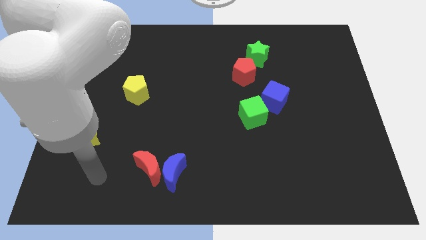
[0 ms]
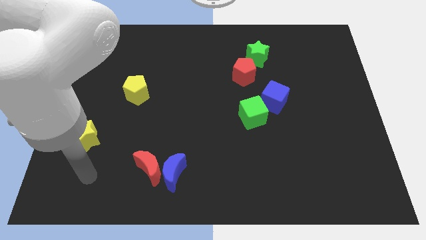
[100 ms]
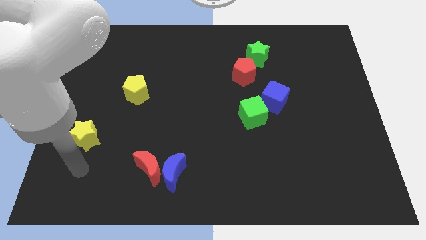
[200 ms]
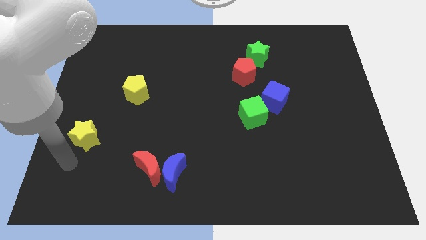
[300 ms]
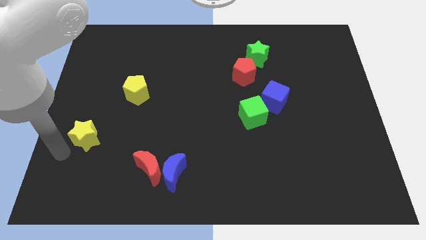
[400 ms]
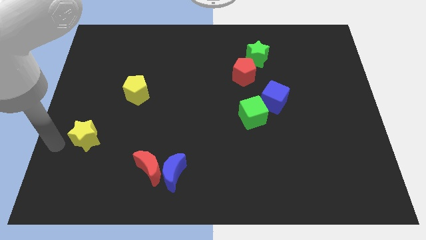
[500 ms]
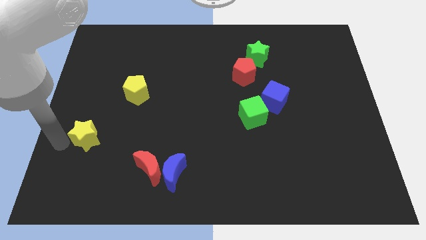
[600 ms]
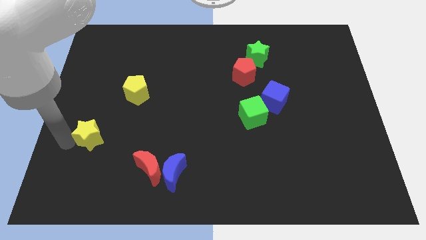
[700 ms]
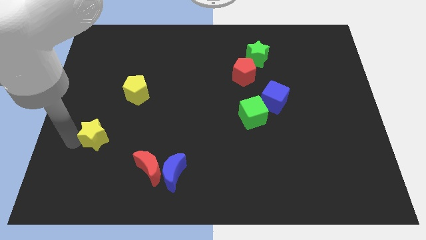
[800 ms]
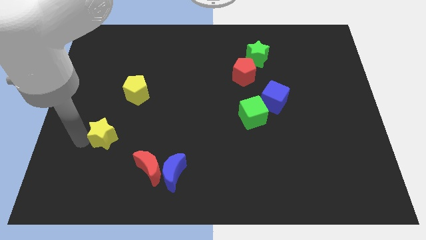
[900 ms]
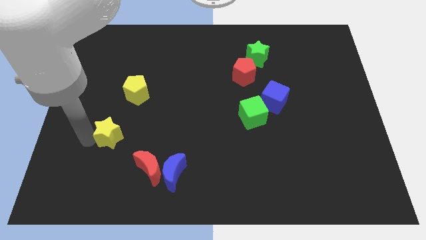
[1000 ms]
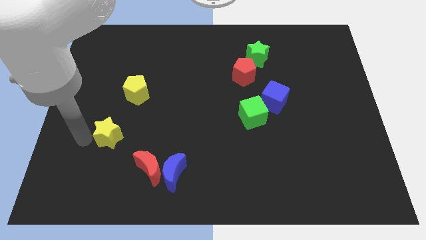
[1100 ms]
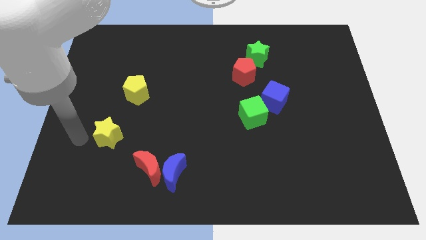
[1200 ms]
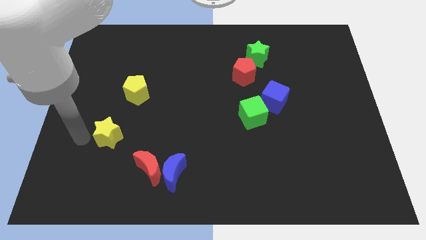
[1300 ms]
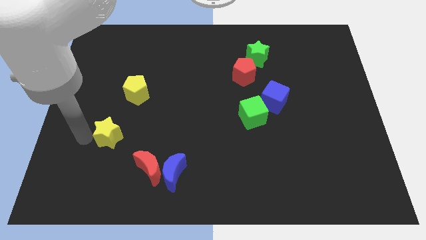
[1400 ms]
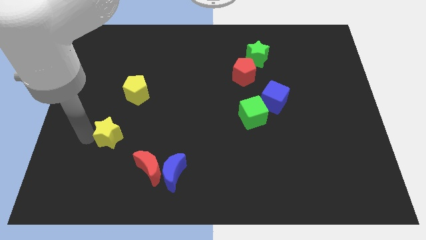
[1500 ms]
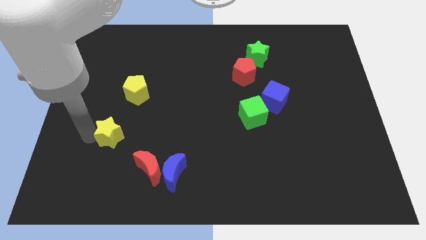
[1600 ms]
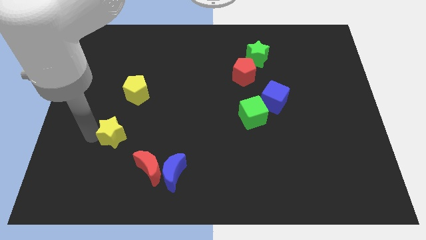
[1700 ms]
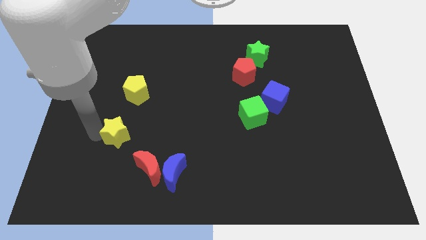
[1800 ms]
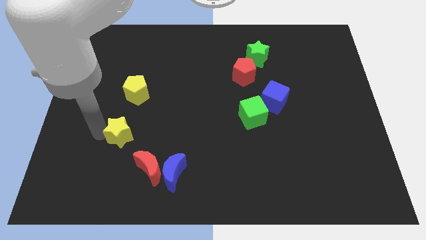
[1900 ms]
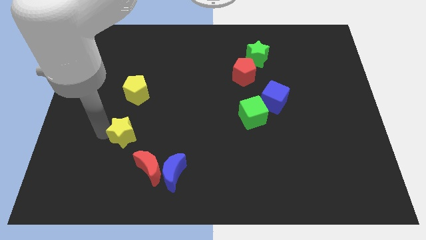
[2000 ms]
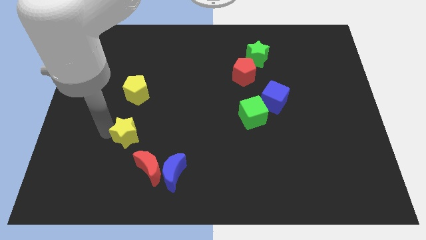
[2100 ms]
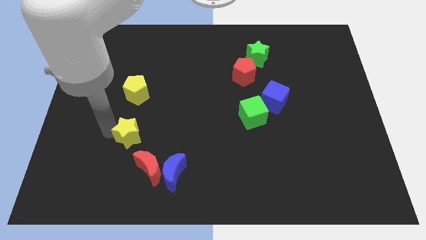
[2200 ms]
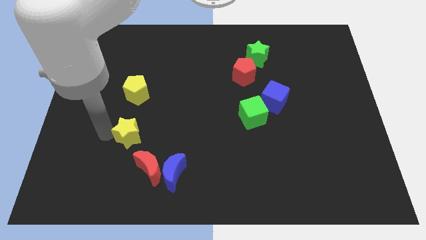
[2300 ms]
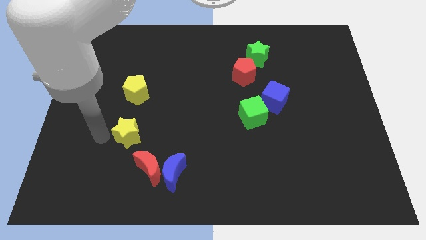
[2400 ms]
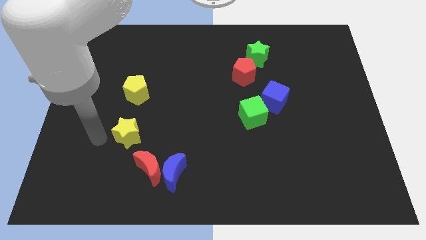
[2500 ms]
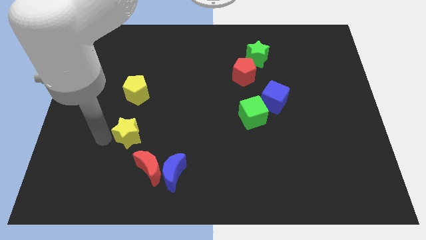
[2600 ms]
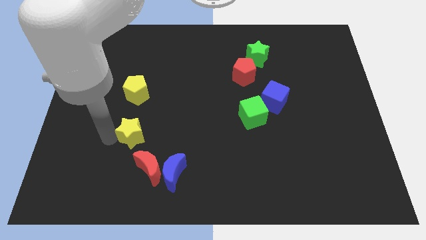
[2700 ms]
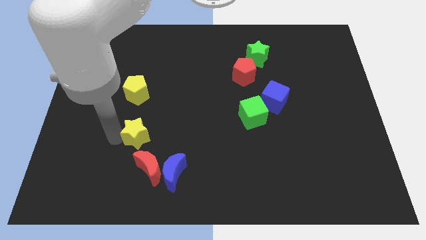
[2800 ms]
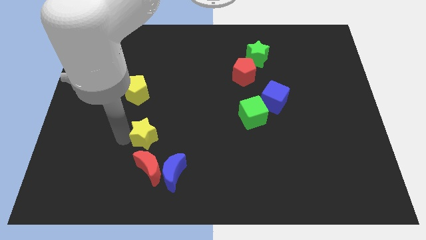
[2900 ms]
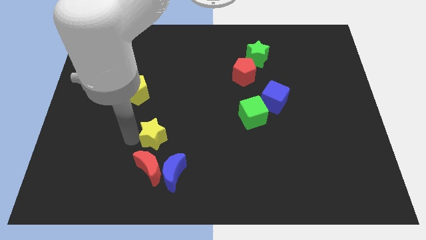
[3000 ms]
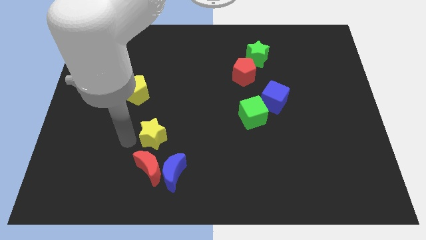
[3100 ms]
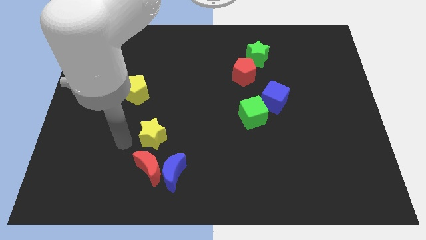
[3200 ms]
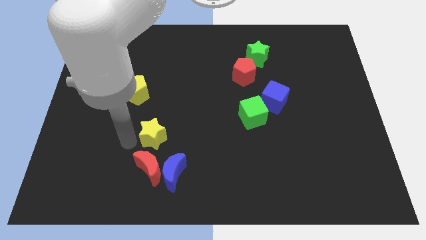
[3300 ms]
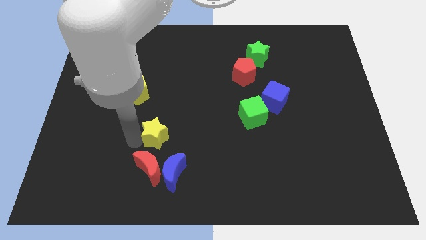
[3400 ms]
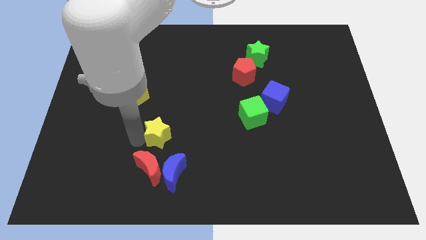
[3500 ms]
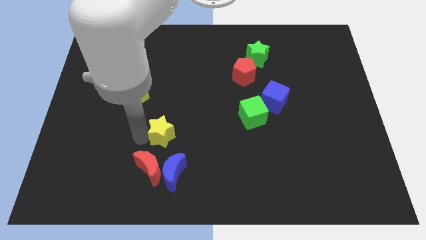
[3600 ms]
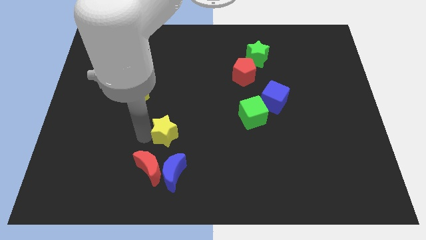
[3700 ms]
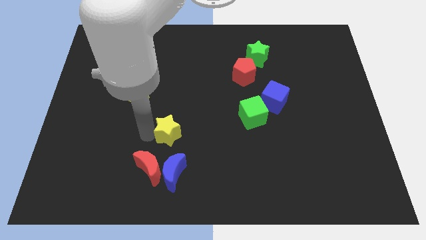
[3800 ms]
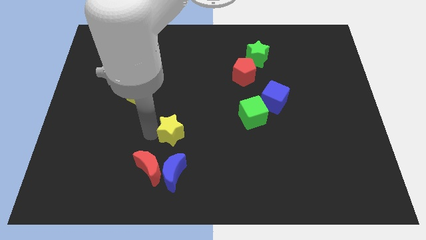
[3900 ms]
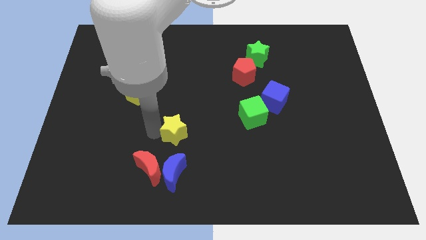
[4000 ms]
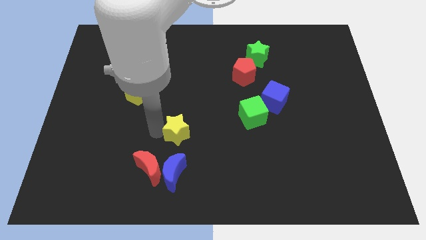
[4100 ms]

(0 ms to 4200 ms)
move the yellow star right

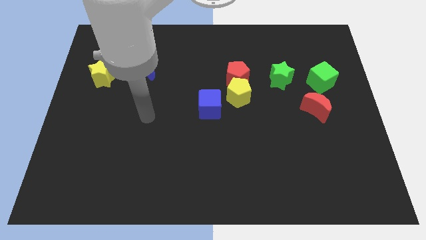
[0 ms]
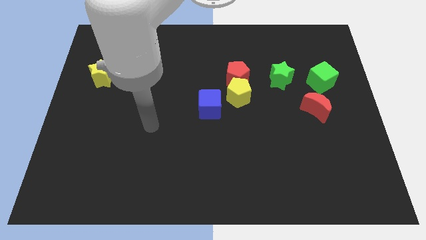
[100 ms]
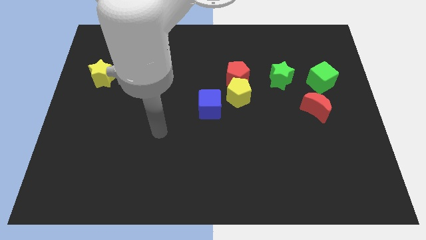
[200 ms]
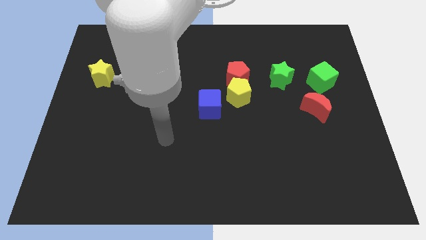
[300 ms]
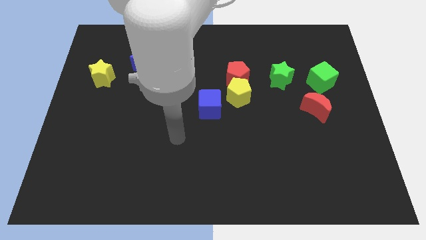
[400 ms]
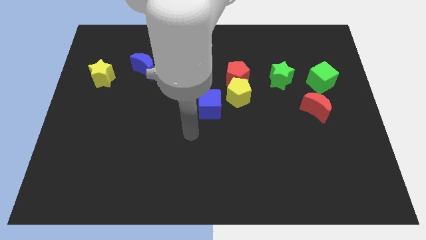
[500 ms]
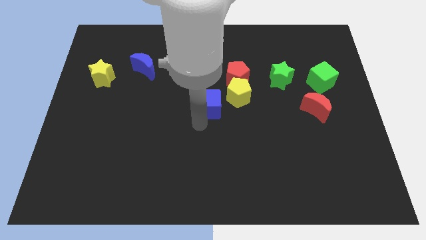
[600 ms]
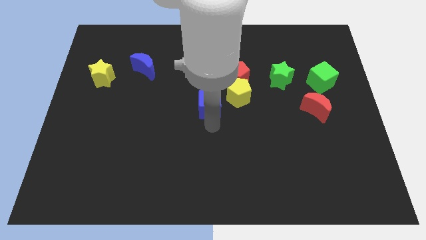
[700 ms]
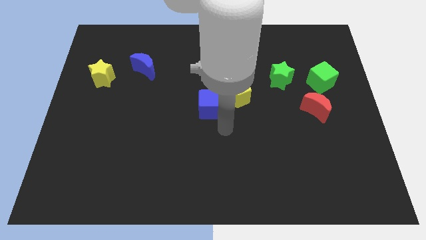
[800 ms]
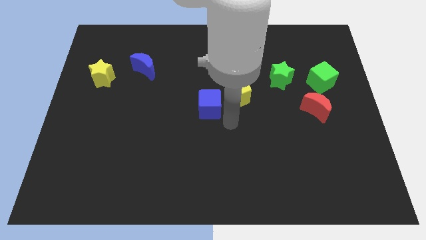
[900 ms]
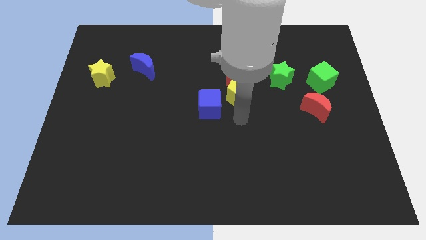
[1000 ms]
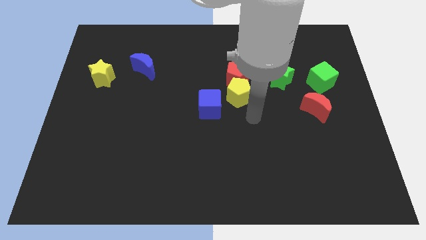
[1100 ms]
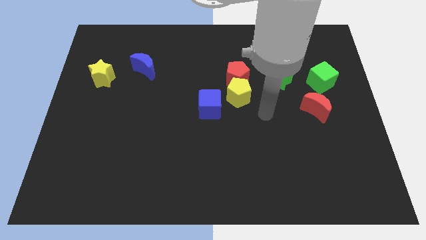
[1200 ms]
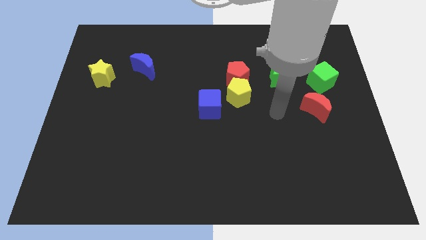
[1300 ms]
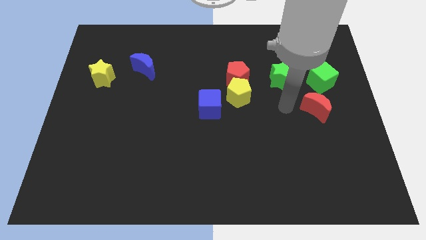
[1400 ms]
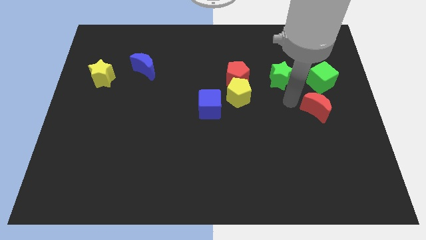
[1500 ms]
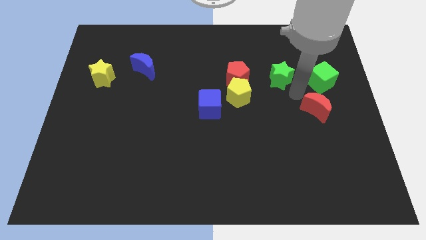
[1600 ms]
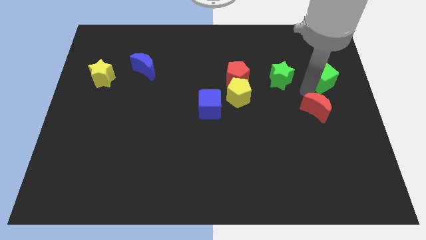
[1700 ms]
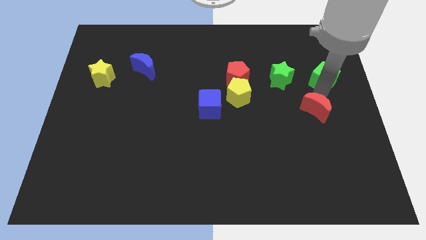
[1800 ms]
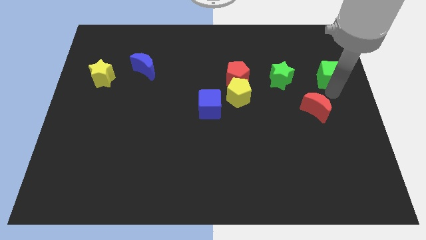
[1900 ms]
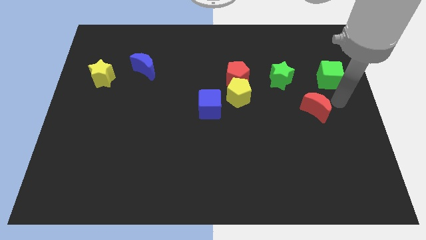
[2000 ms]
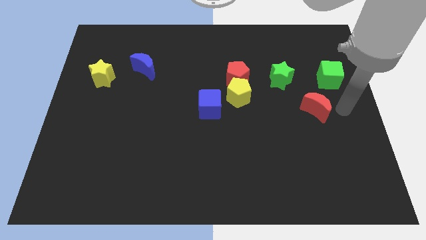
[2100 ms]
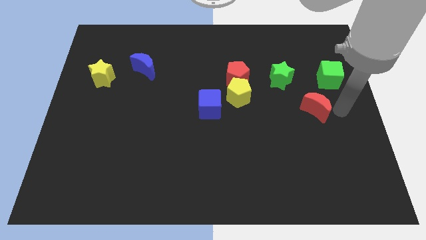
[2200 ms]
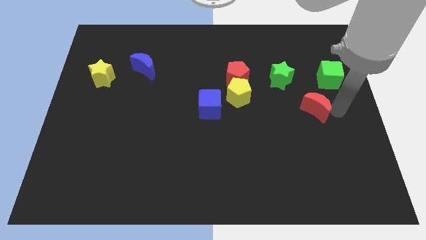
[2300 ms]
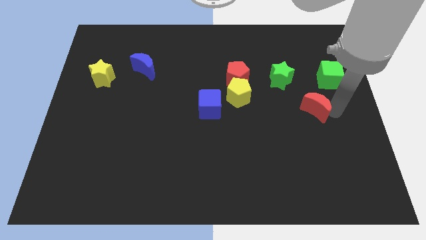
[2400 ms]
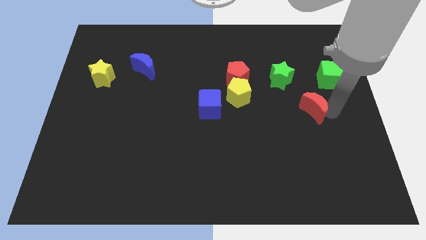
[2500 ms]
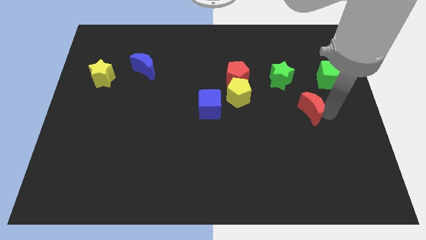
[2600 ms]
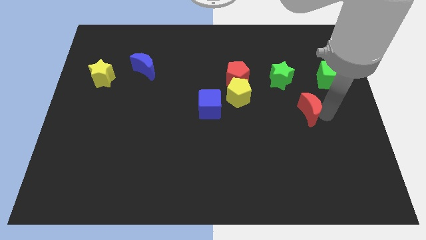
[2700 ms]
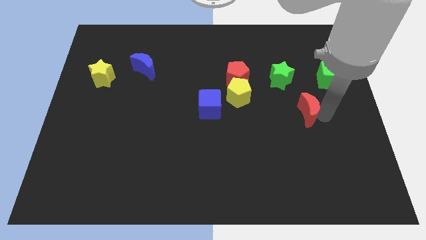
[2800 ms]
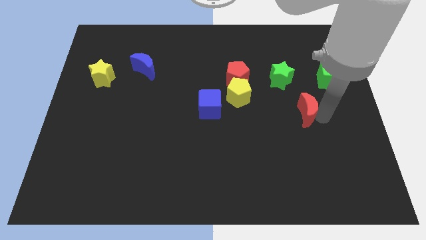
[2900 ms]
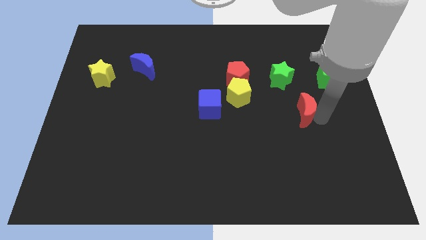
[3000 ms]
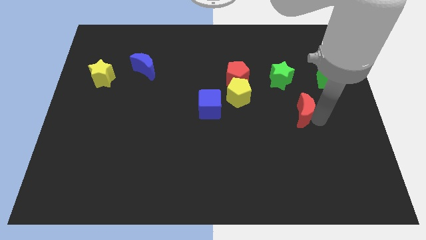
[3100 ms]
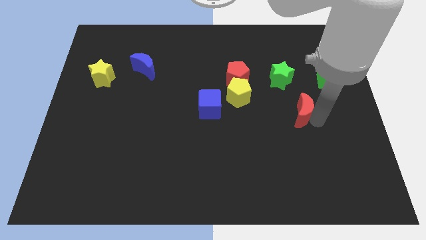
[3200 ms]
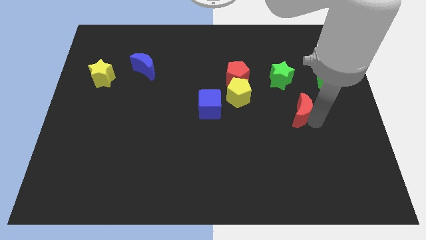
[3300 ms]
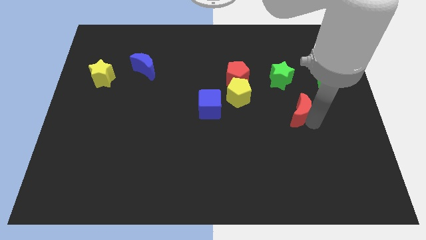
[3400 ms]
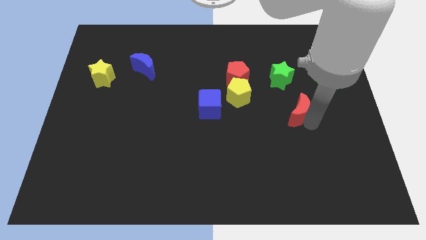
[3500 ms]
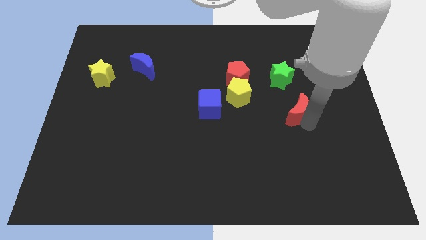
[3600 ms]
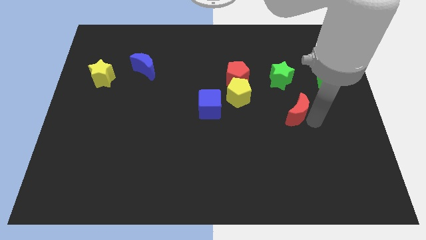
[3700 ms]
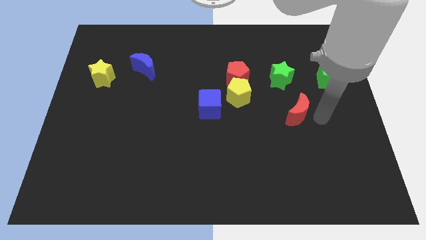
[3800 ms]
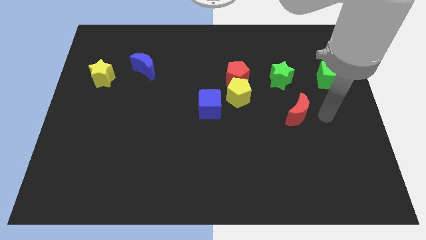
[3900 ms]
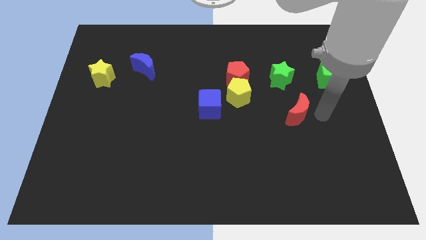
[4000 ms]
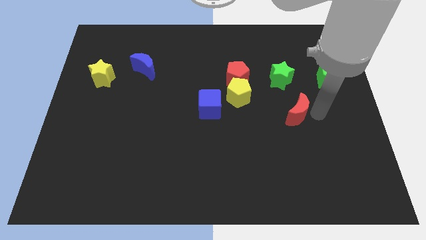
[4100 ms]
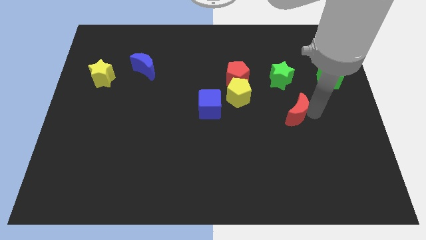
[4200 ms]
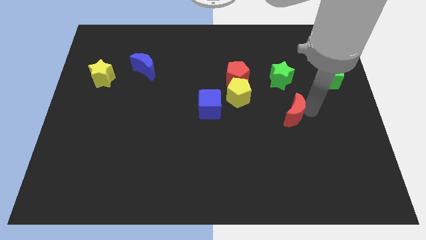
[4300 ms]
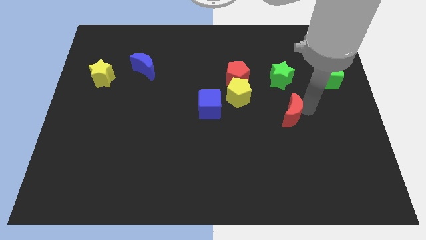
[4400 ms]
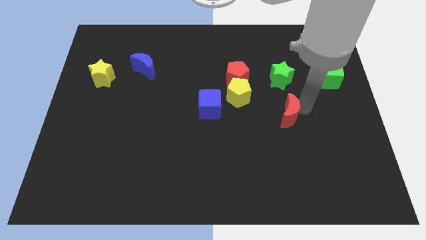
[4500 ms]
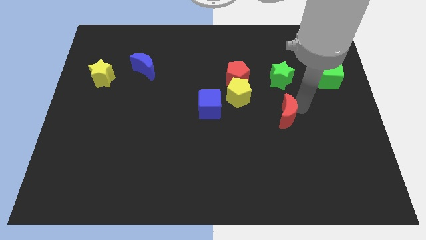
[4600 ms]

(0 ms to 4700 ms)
push the red moon a little to the left
